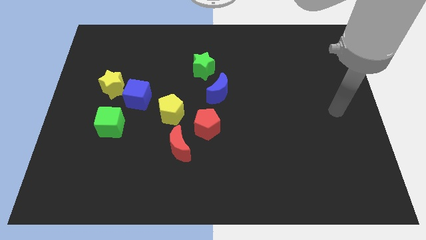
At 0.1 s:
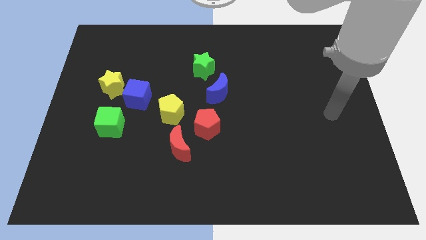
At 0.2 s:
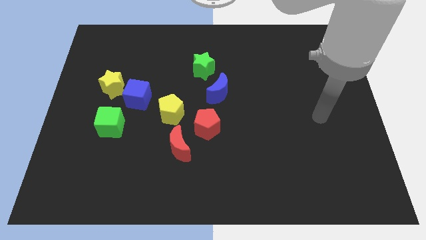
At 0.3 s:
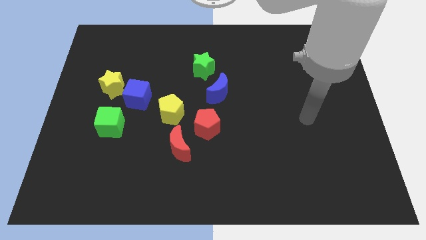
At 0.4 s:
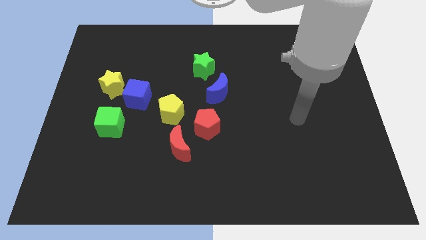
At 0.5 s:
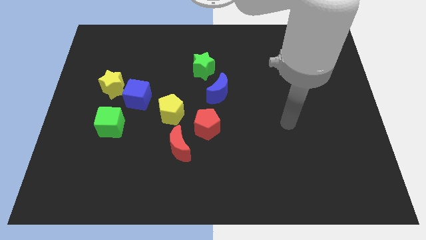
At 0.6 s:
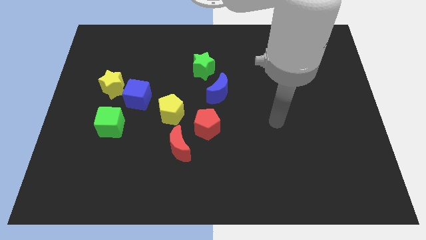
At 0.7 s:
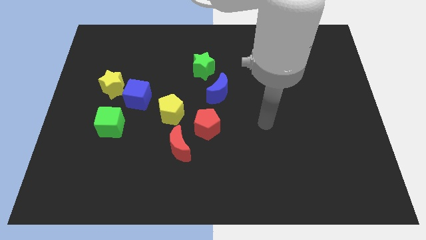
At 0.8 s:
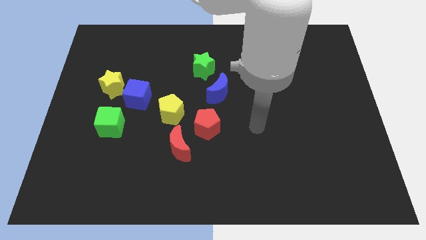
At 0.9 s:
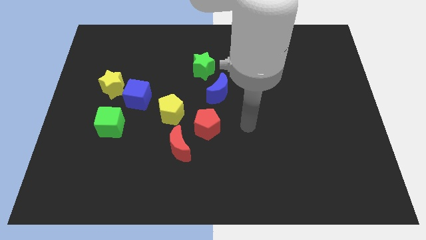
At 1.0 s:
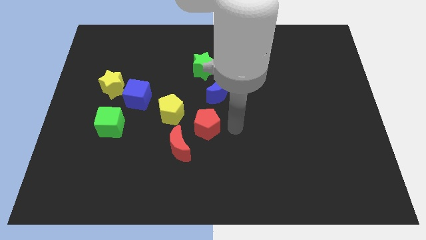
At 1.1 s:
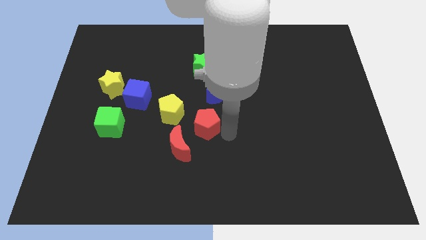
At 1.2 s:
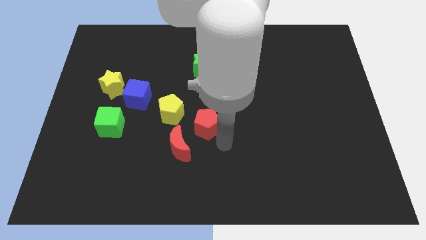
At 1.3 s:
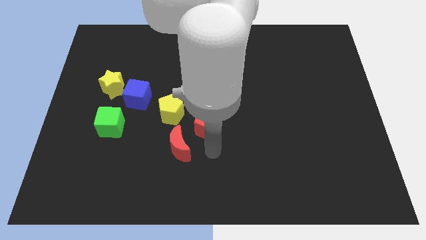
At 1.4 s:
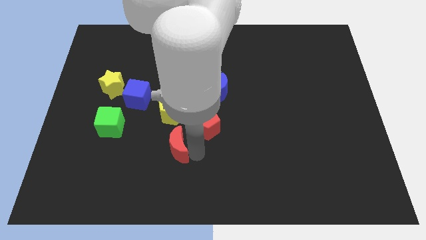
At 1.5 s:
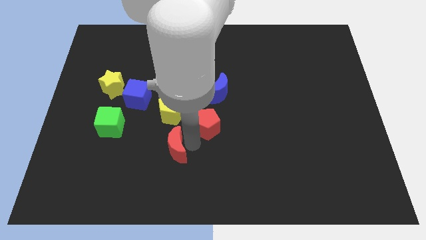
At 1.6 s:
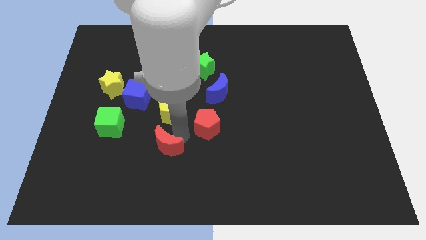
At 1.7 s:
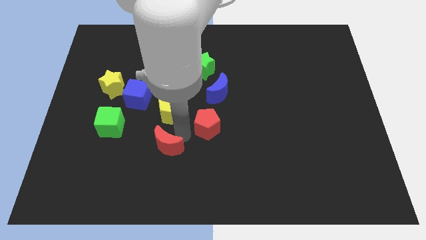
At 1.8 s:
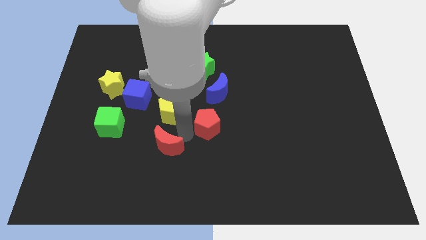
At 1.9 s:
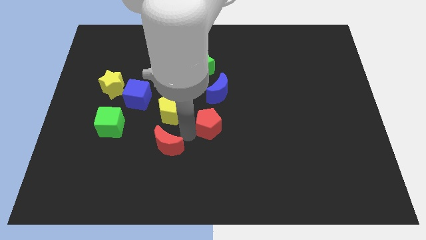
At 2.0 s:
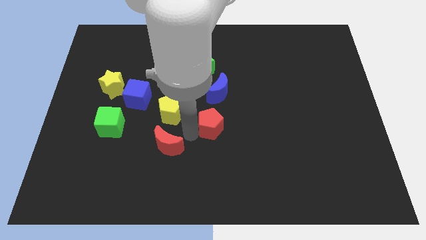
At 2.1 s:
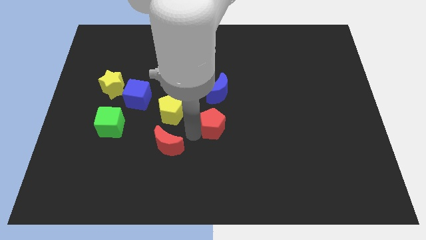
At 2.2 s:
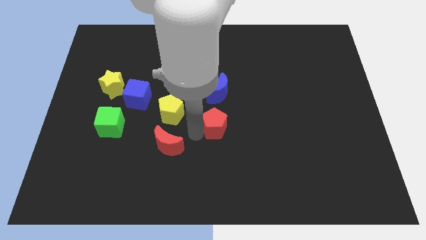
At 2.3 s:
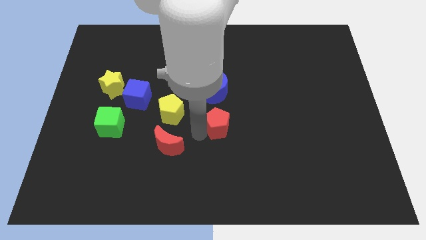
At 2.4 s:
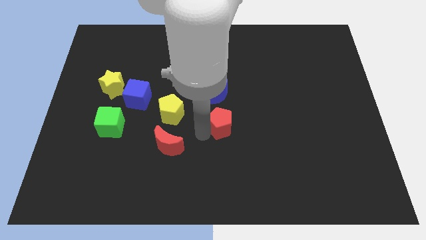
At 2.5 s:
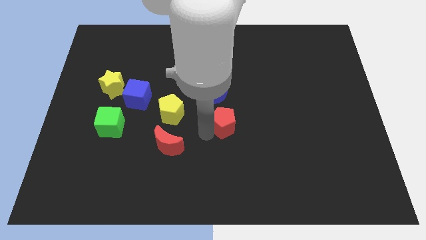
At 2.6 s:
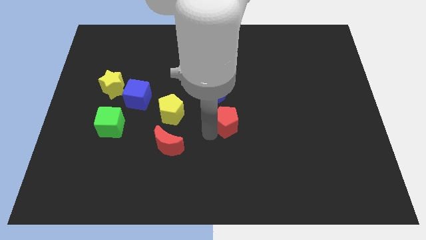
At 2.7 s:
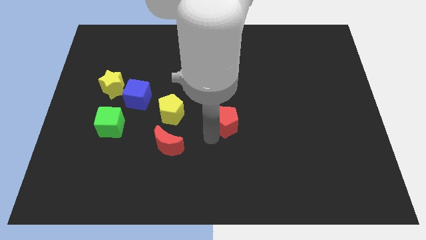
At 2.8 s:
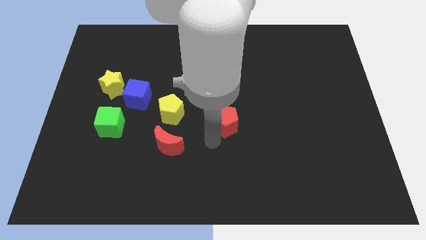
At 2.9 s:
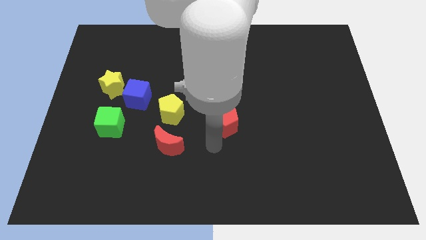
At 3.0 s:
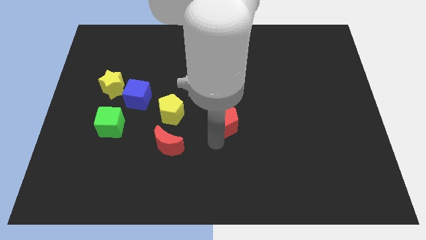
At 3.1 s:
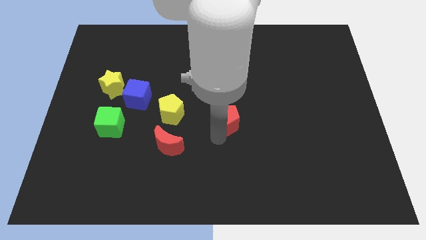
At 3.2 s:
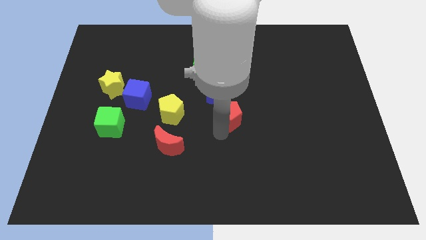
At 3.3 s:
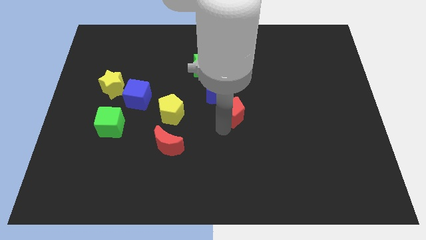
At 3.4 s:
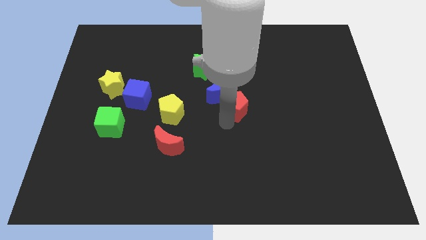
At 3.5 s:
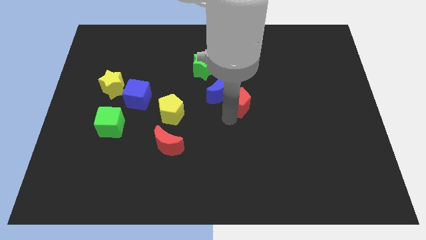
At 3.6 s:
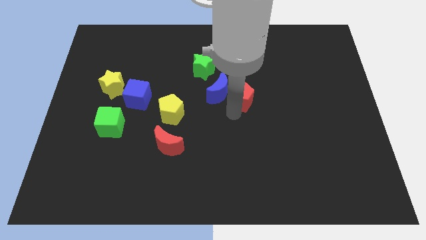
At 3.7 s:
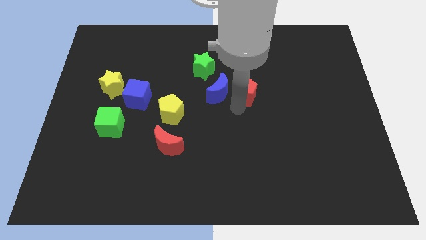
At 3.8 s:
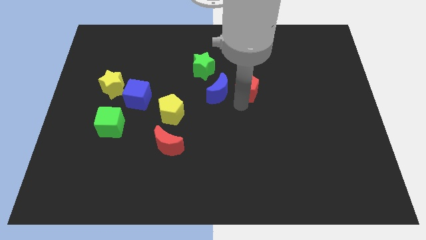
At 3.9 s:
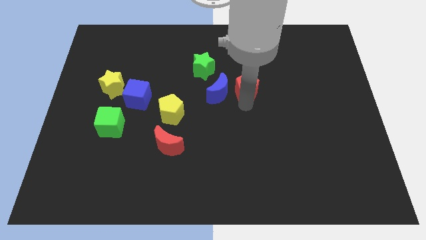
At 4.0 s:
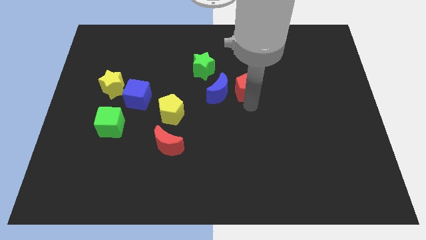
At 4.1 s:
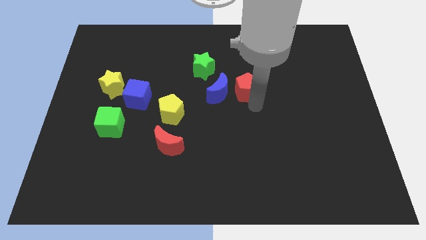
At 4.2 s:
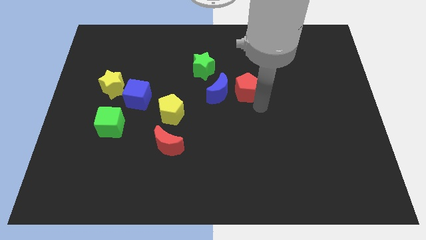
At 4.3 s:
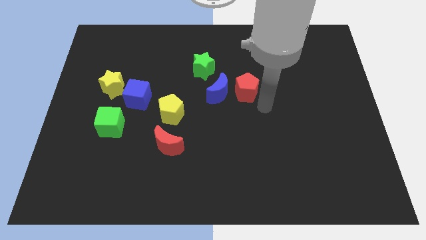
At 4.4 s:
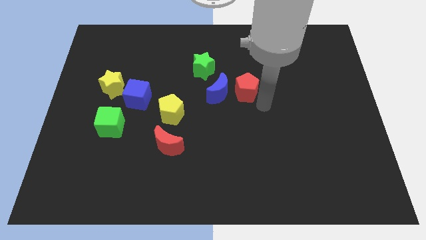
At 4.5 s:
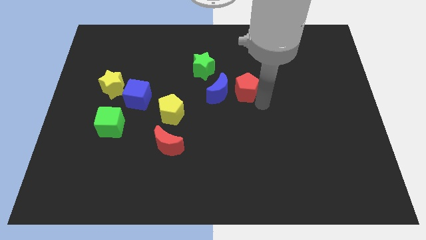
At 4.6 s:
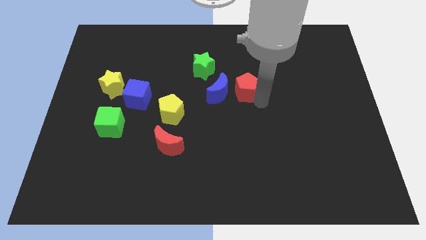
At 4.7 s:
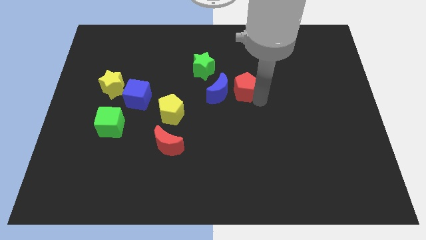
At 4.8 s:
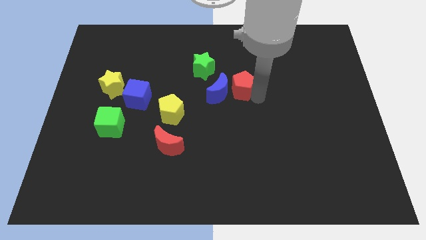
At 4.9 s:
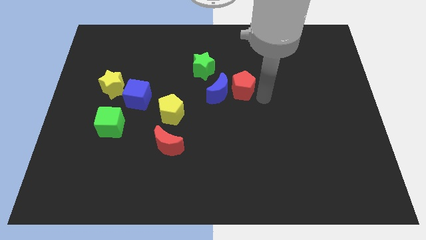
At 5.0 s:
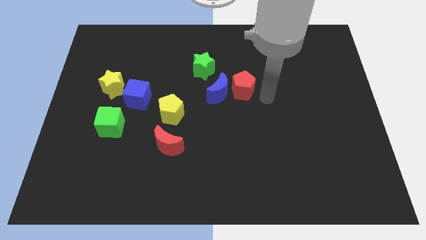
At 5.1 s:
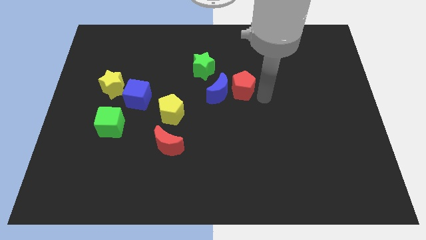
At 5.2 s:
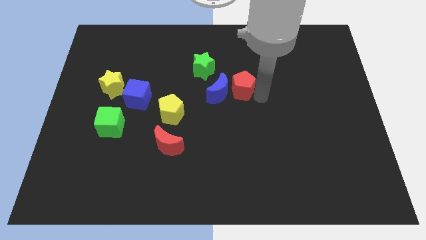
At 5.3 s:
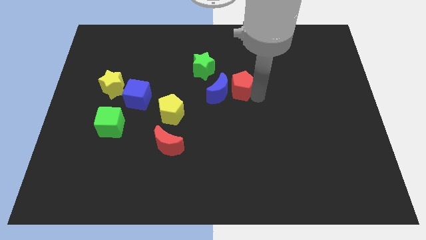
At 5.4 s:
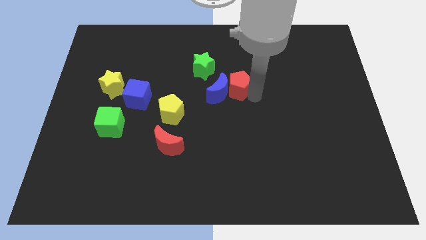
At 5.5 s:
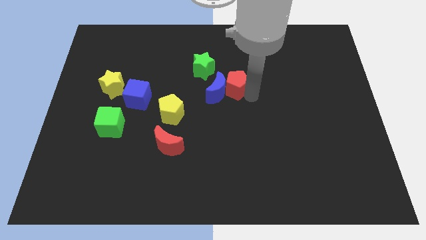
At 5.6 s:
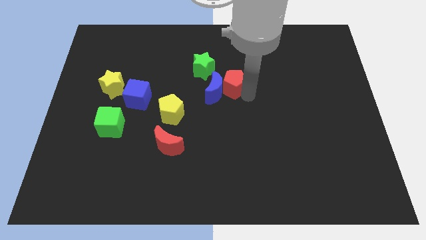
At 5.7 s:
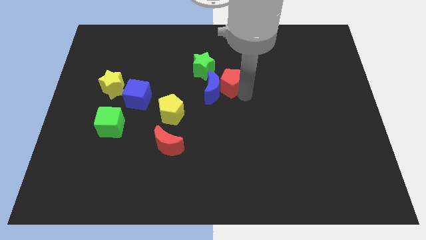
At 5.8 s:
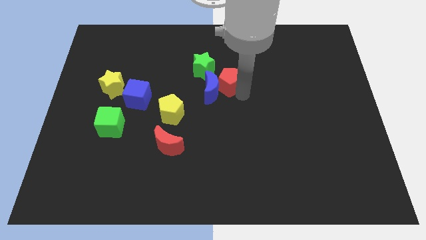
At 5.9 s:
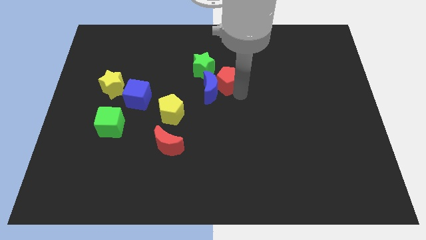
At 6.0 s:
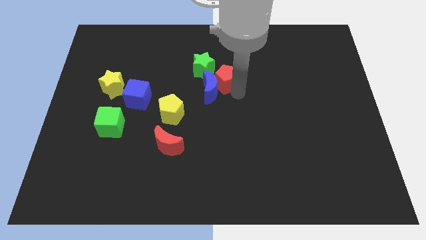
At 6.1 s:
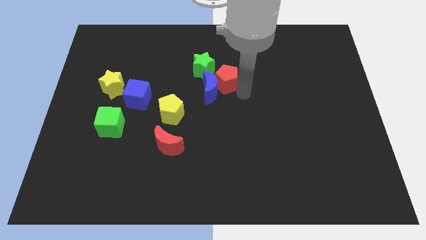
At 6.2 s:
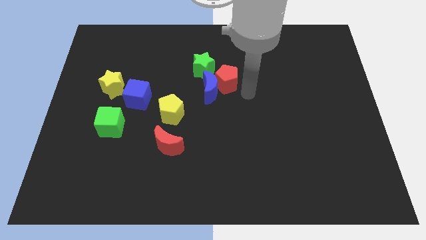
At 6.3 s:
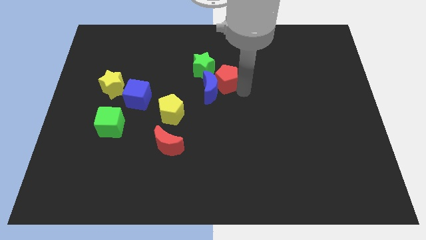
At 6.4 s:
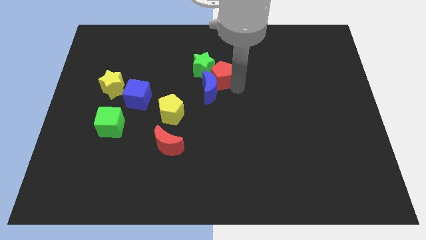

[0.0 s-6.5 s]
put the red pentagon towards the green star
